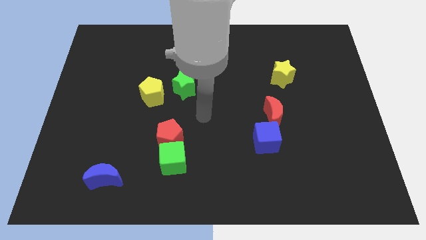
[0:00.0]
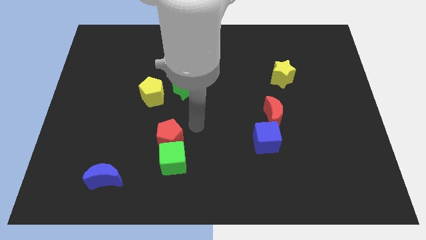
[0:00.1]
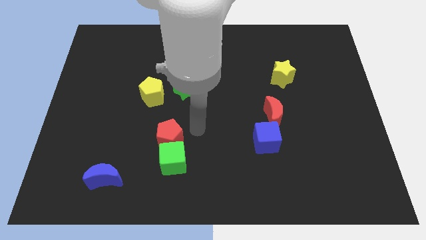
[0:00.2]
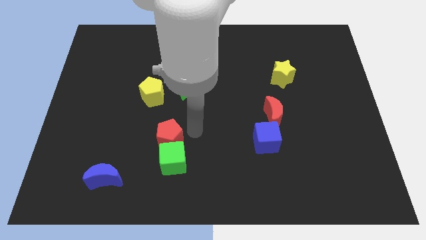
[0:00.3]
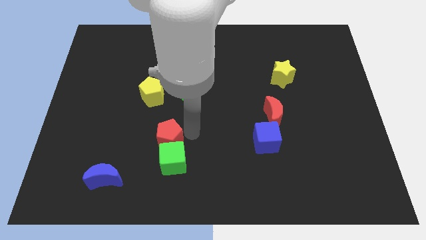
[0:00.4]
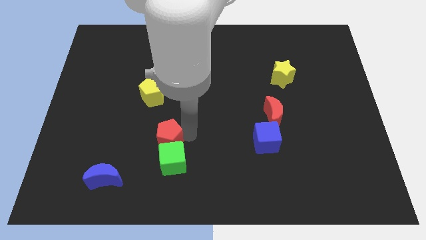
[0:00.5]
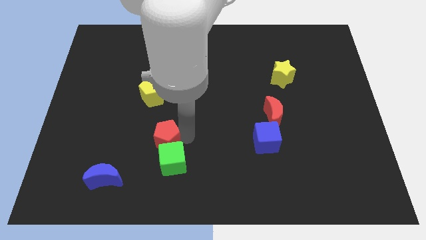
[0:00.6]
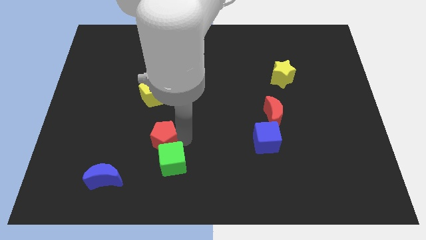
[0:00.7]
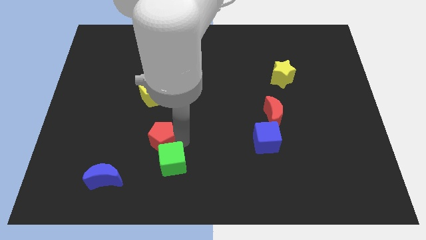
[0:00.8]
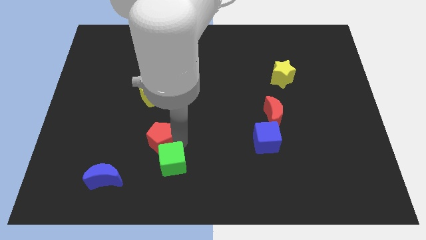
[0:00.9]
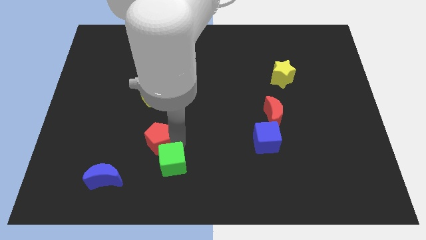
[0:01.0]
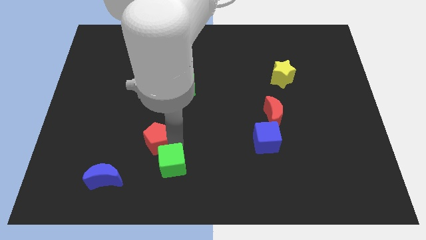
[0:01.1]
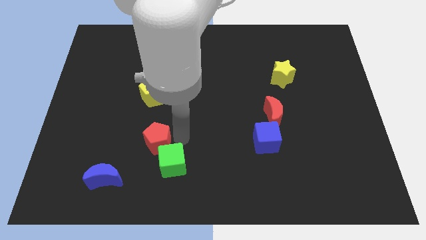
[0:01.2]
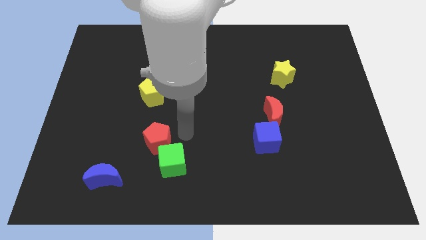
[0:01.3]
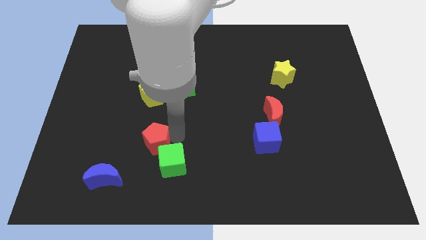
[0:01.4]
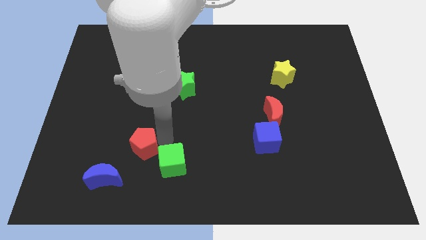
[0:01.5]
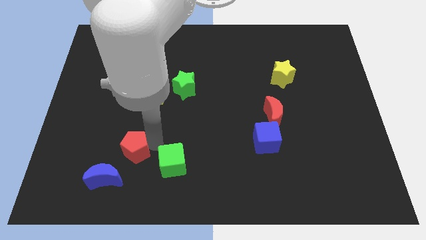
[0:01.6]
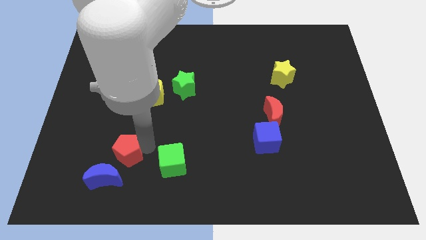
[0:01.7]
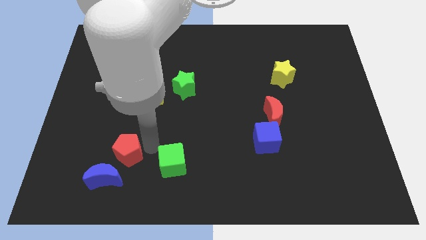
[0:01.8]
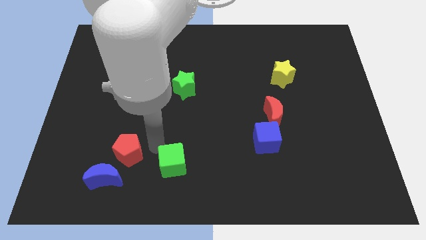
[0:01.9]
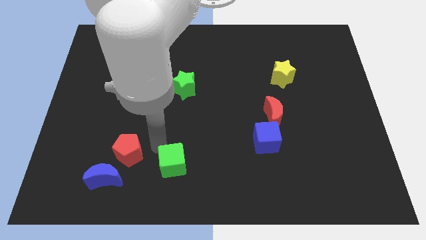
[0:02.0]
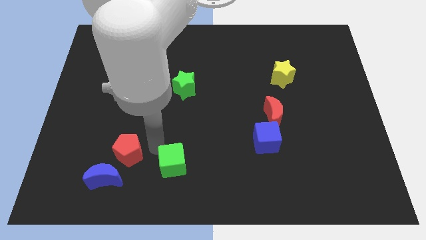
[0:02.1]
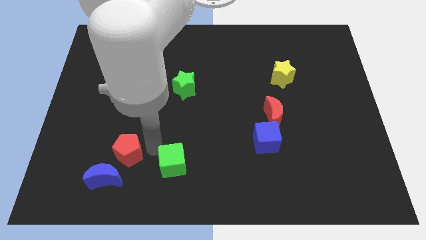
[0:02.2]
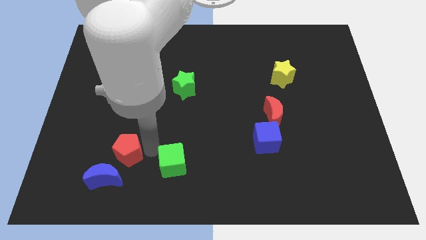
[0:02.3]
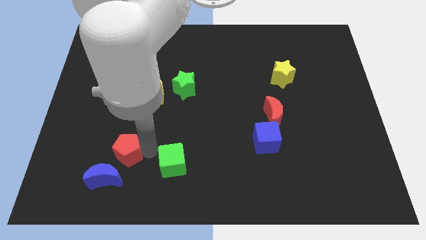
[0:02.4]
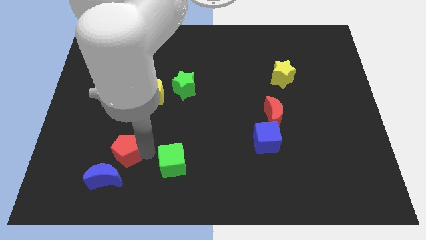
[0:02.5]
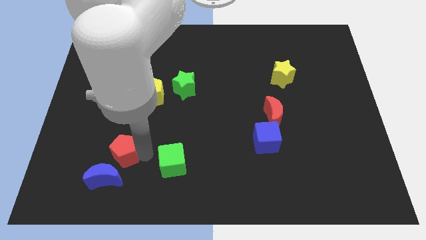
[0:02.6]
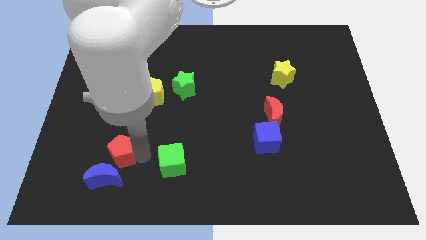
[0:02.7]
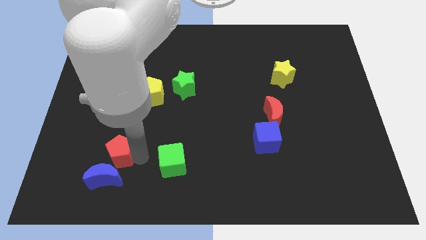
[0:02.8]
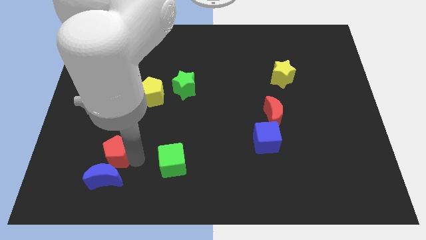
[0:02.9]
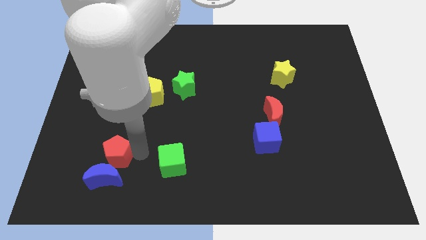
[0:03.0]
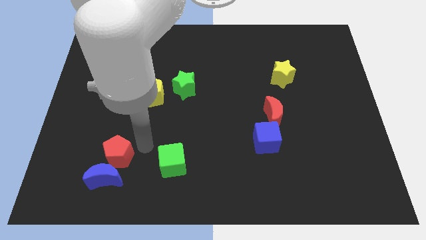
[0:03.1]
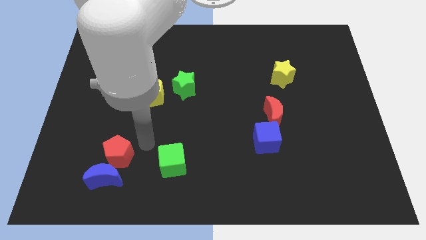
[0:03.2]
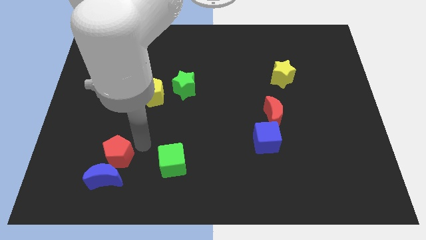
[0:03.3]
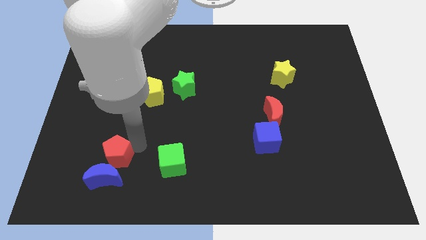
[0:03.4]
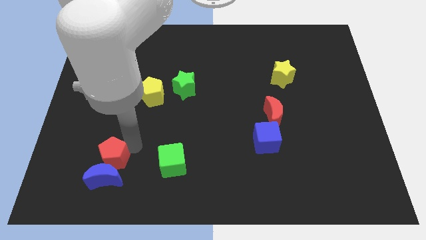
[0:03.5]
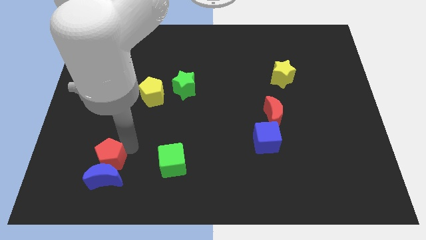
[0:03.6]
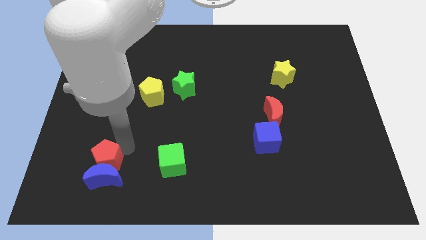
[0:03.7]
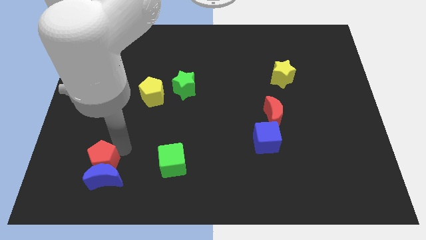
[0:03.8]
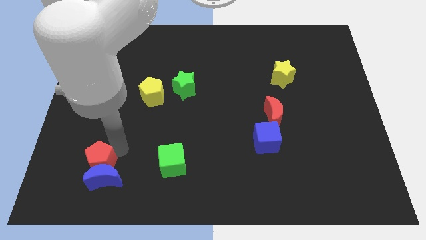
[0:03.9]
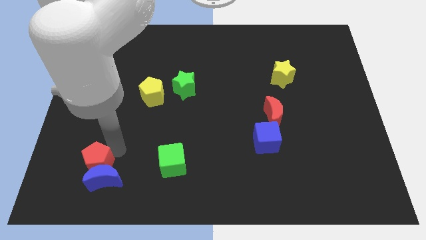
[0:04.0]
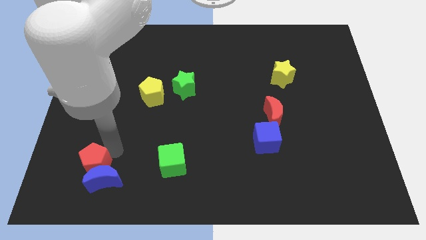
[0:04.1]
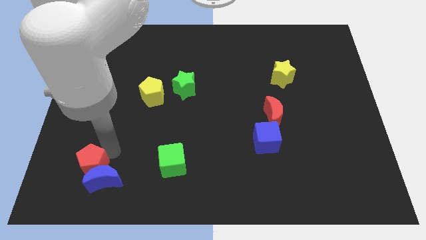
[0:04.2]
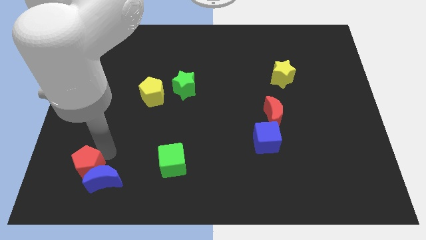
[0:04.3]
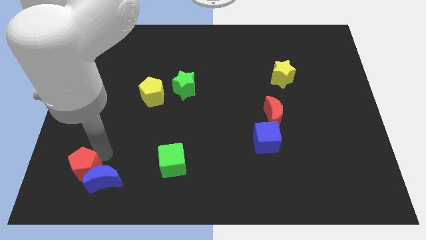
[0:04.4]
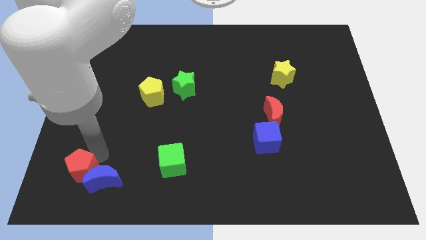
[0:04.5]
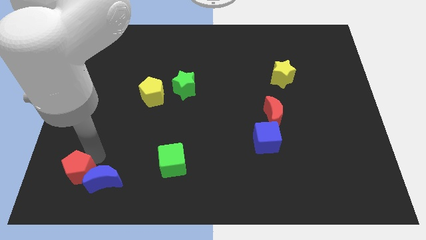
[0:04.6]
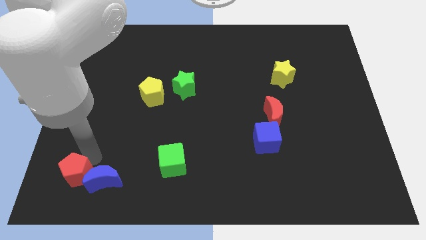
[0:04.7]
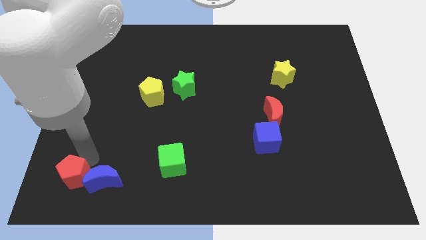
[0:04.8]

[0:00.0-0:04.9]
move the red pentagon to the bottom left corner

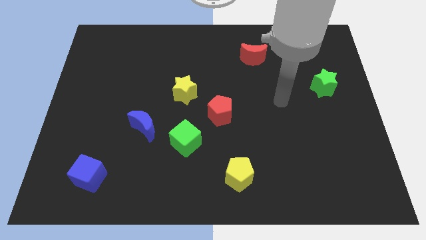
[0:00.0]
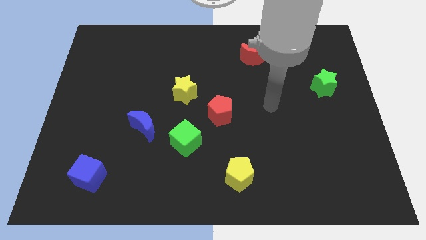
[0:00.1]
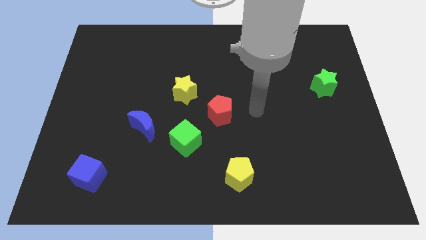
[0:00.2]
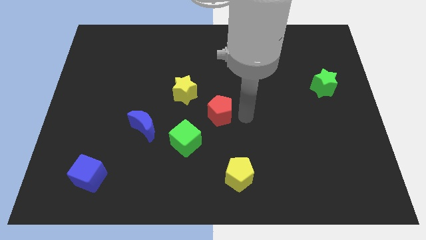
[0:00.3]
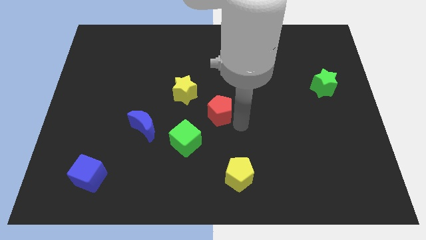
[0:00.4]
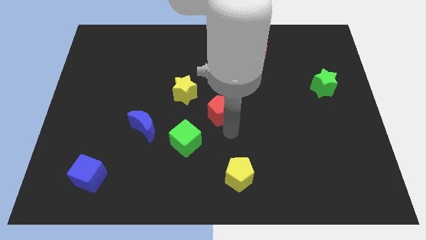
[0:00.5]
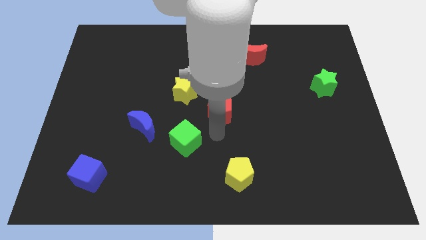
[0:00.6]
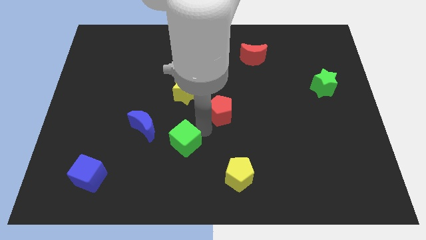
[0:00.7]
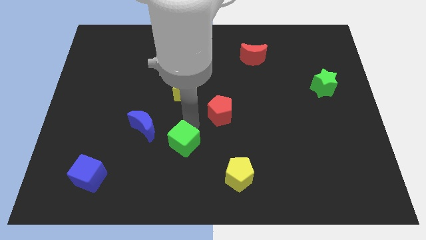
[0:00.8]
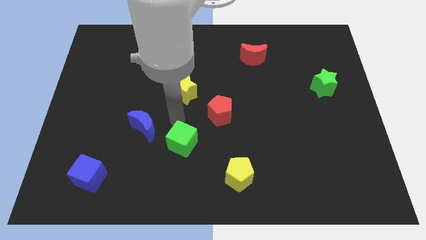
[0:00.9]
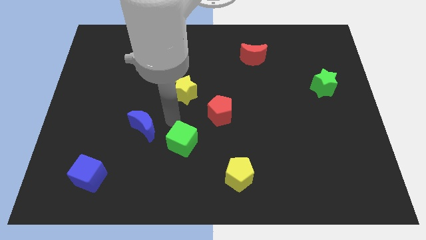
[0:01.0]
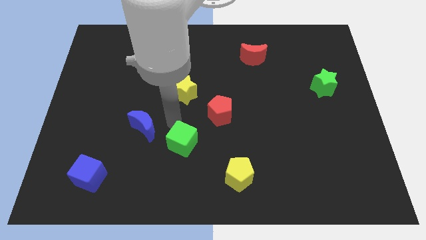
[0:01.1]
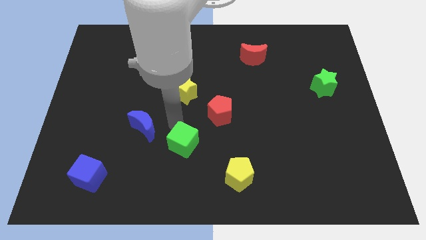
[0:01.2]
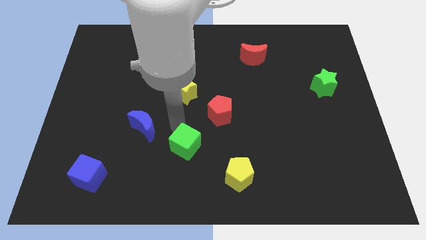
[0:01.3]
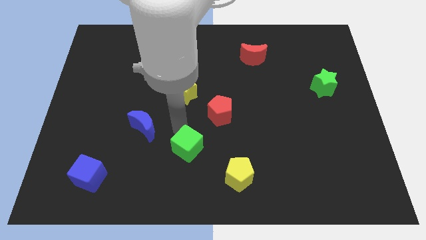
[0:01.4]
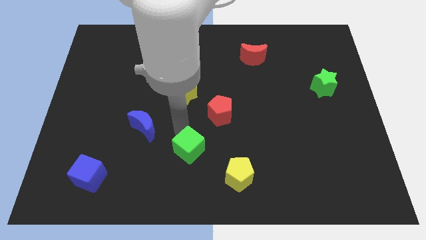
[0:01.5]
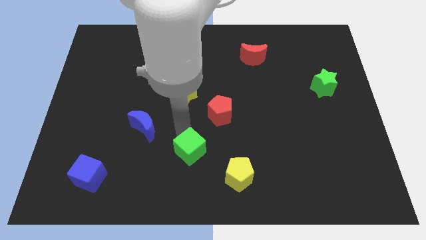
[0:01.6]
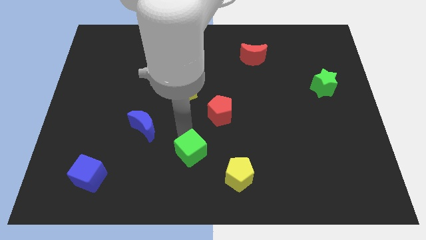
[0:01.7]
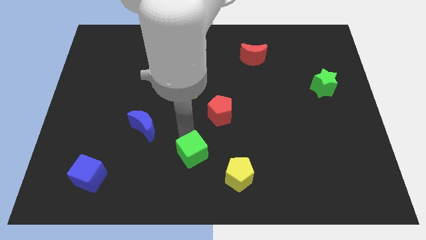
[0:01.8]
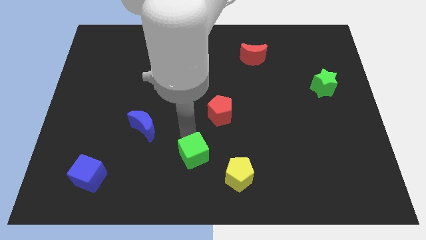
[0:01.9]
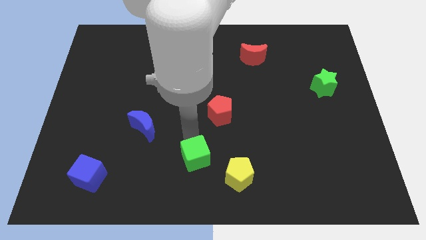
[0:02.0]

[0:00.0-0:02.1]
move the green cube to the bottom side
